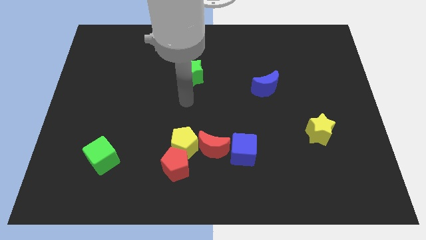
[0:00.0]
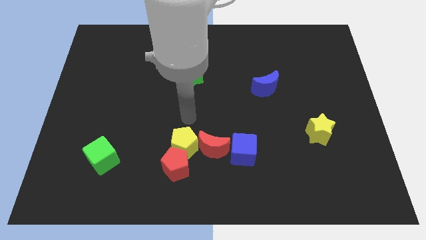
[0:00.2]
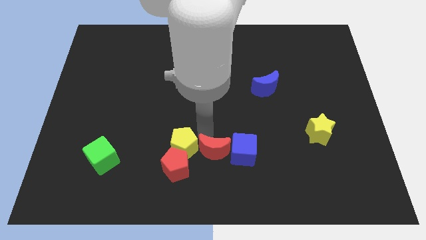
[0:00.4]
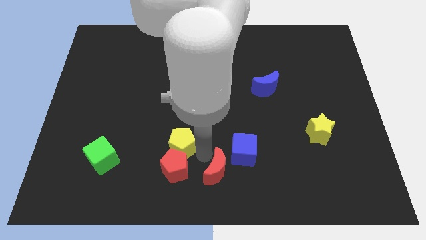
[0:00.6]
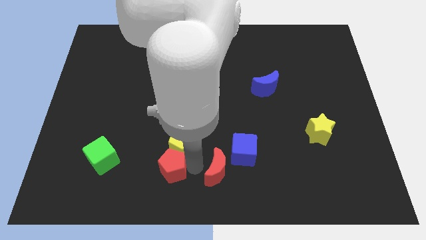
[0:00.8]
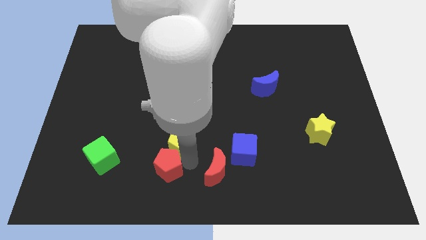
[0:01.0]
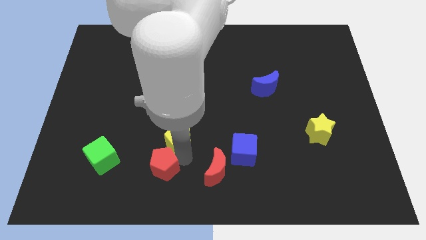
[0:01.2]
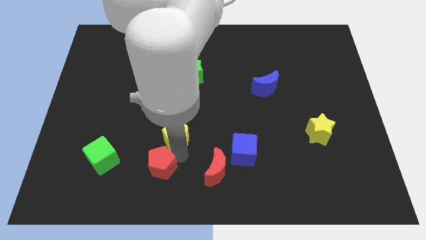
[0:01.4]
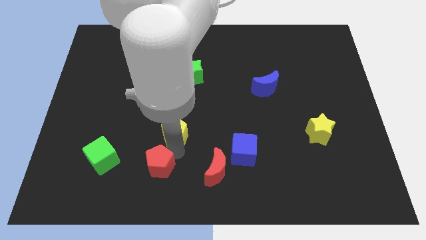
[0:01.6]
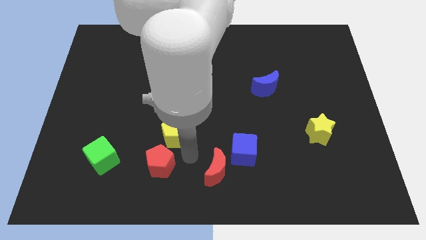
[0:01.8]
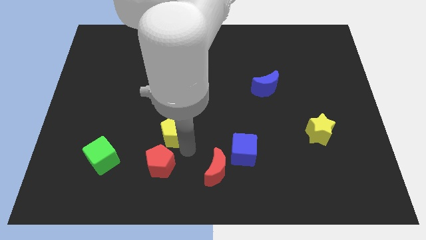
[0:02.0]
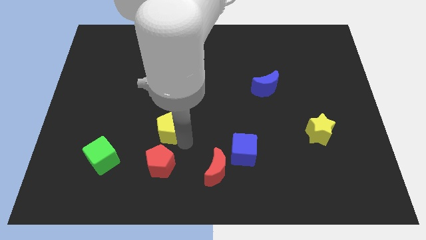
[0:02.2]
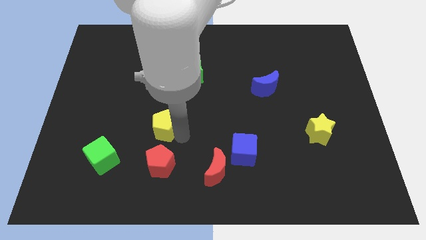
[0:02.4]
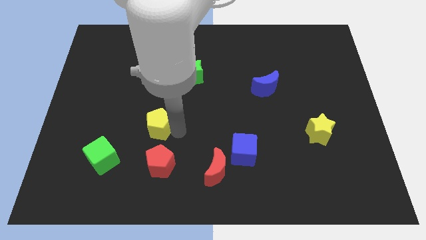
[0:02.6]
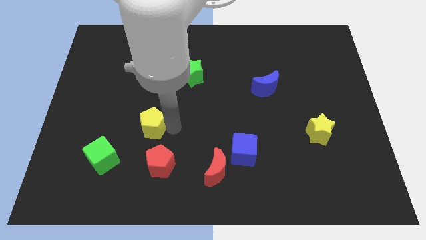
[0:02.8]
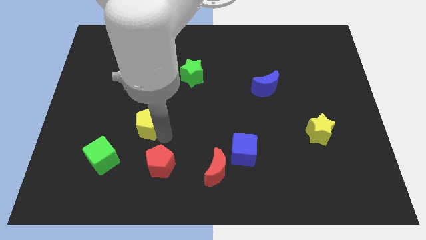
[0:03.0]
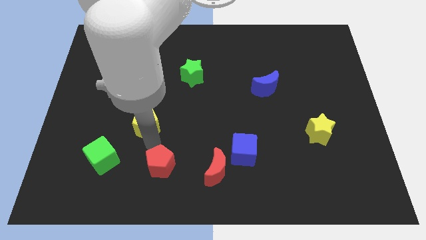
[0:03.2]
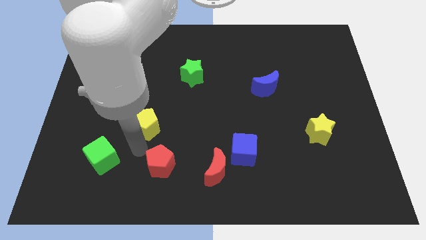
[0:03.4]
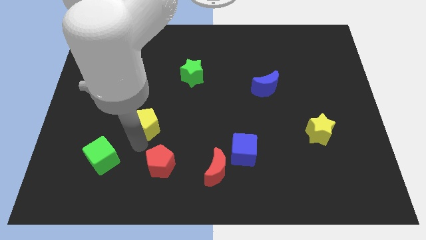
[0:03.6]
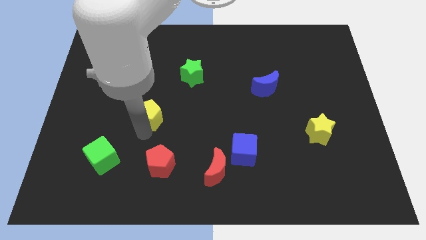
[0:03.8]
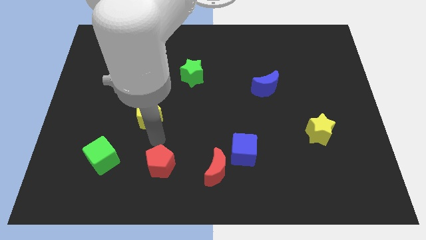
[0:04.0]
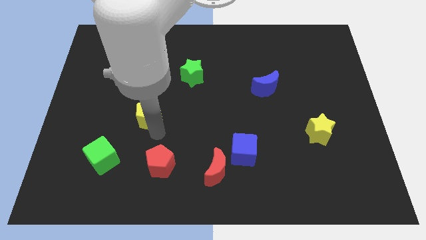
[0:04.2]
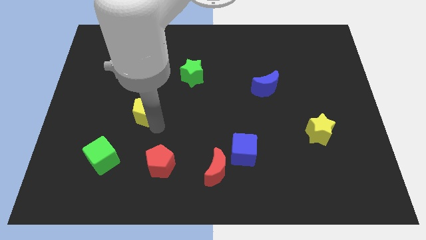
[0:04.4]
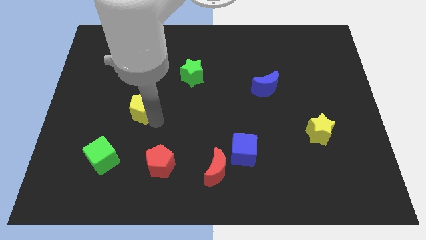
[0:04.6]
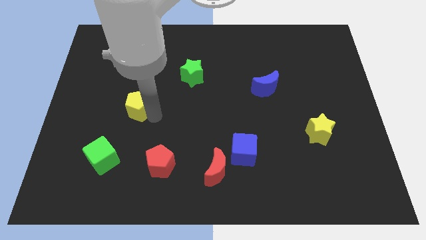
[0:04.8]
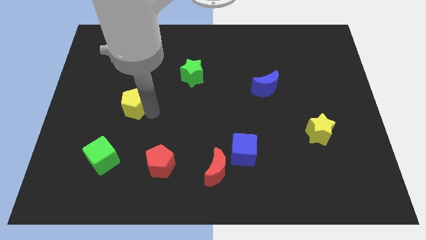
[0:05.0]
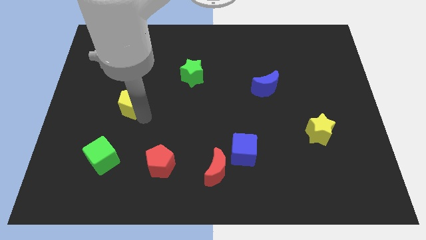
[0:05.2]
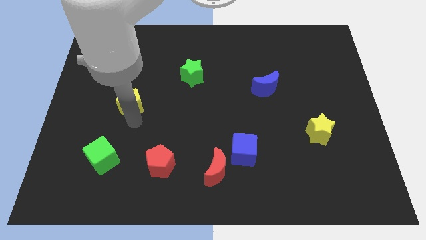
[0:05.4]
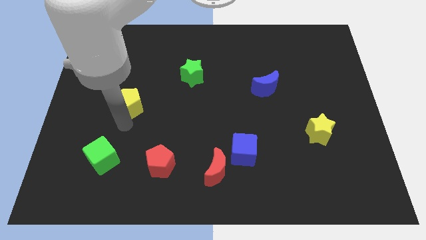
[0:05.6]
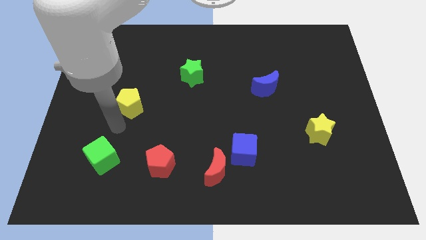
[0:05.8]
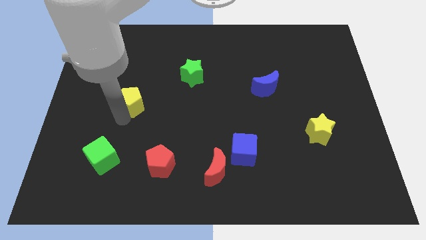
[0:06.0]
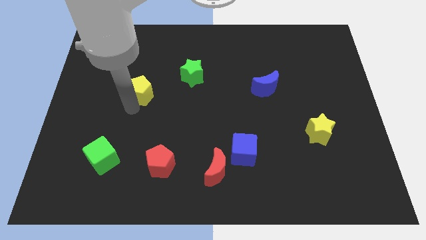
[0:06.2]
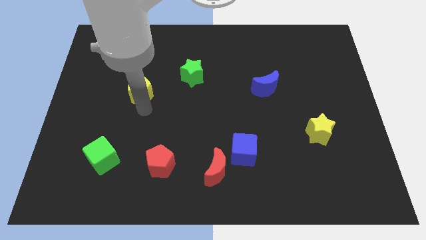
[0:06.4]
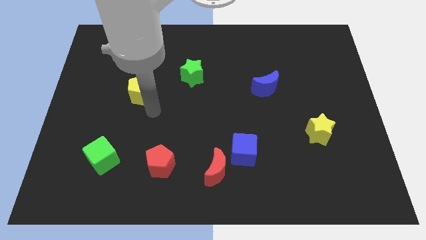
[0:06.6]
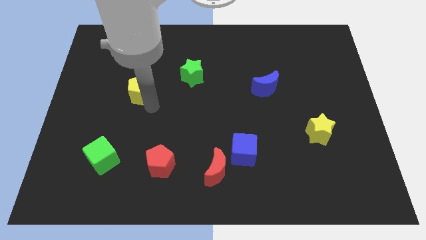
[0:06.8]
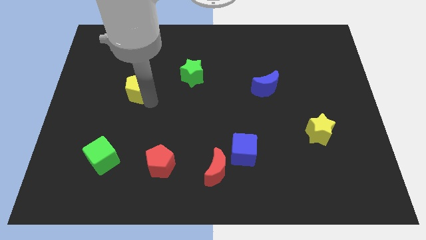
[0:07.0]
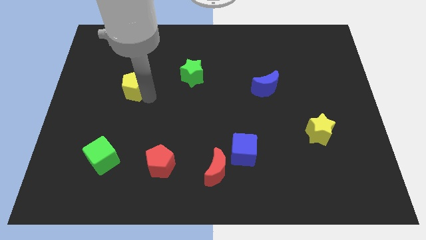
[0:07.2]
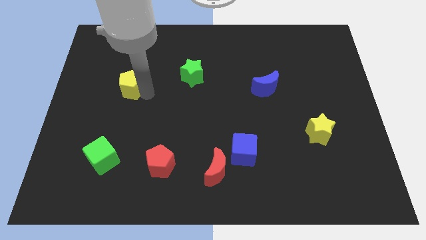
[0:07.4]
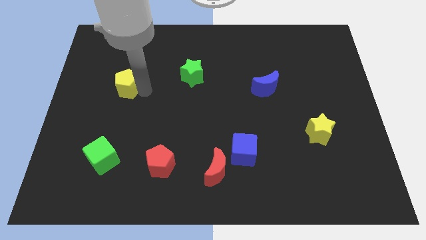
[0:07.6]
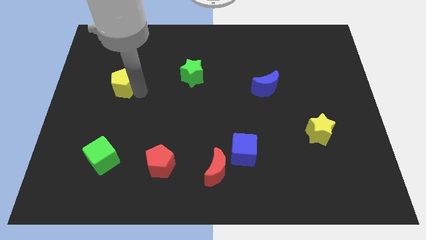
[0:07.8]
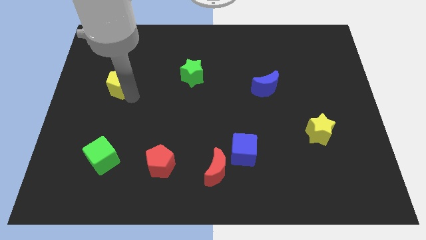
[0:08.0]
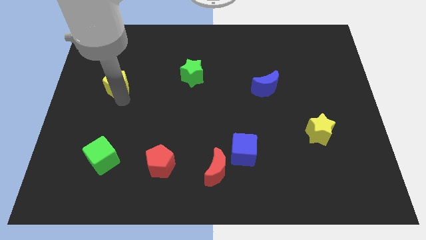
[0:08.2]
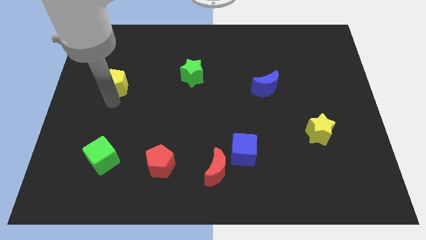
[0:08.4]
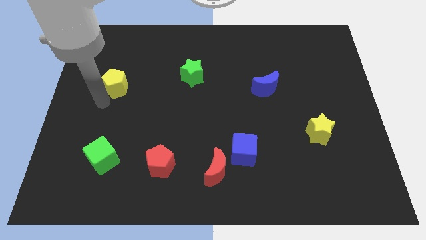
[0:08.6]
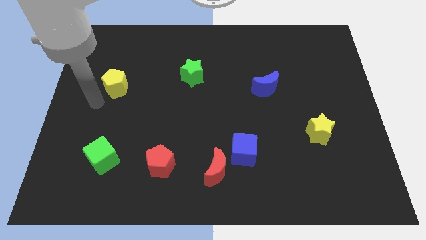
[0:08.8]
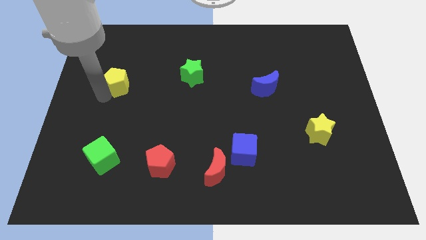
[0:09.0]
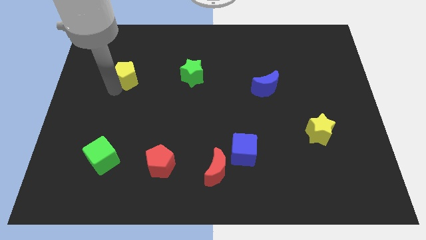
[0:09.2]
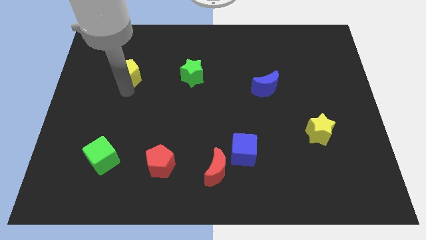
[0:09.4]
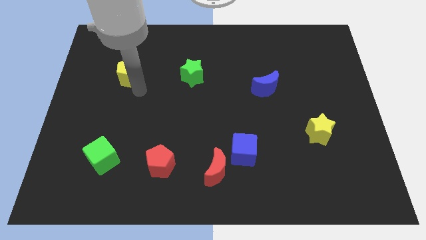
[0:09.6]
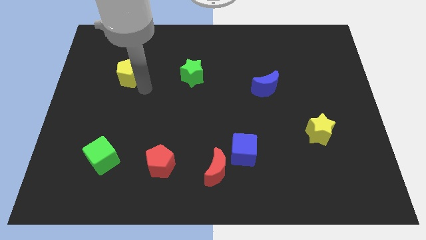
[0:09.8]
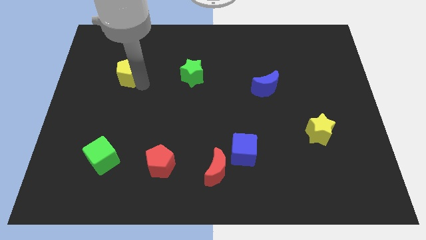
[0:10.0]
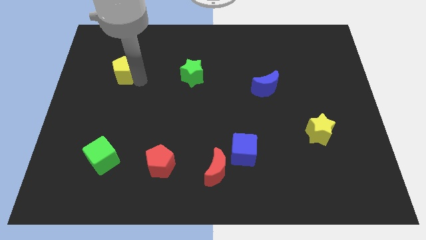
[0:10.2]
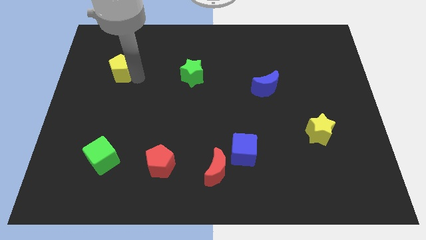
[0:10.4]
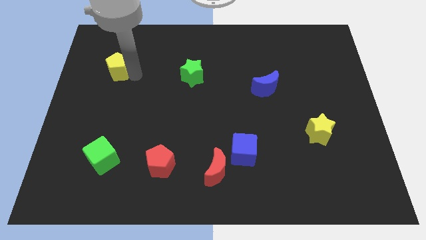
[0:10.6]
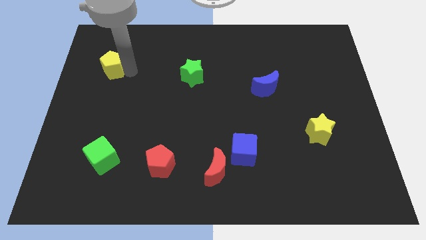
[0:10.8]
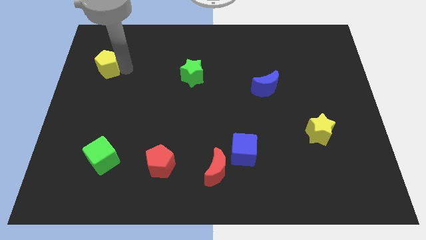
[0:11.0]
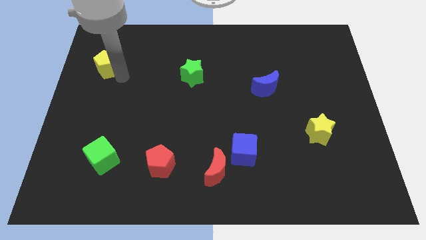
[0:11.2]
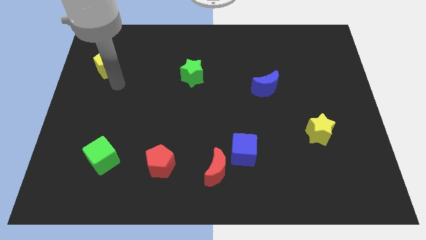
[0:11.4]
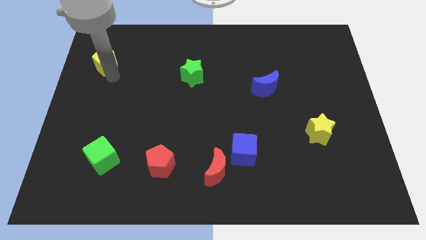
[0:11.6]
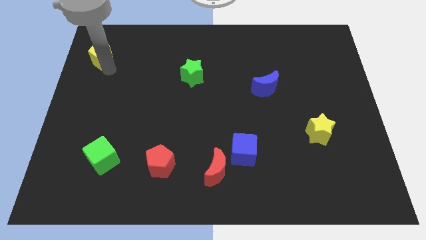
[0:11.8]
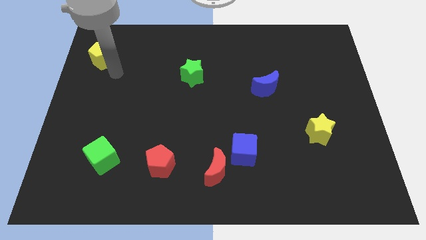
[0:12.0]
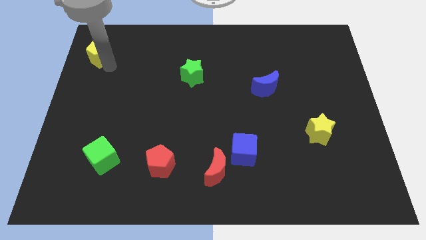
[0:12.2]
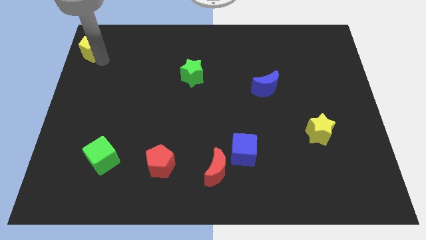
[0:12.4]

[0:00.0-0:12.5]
slide the yellow pentagon to the upper left corner
